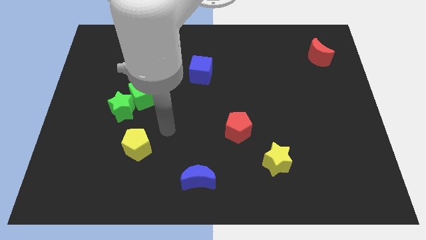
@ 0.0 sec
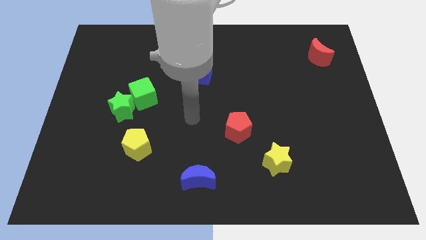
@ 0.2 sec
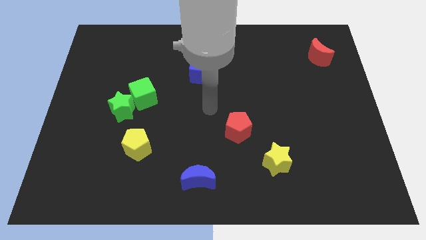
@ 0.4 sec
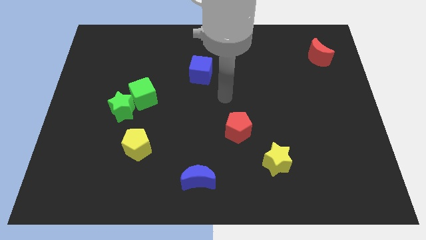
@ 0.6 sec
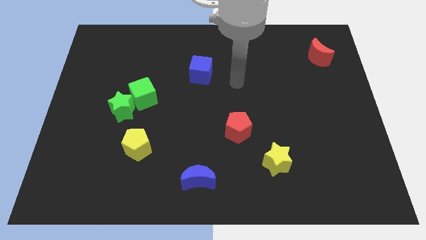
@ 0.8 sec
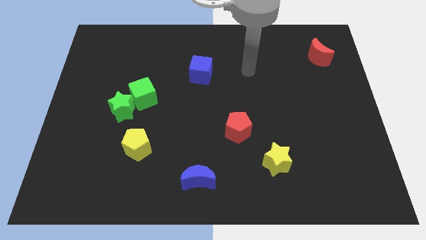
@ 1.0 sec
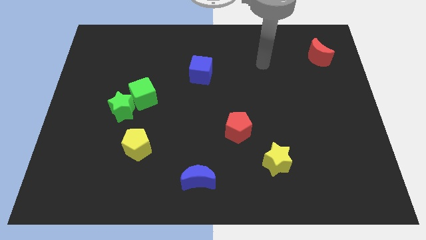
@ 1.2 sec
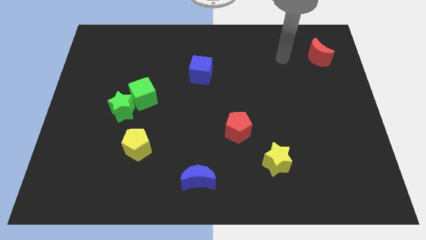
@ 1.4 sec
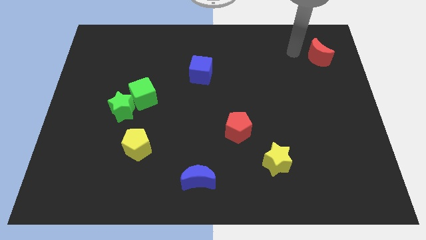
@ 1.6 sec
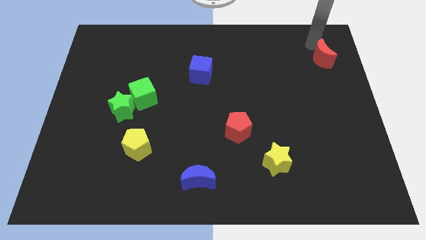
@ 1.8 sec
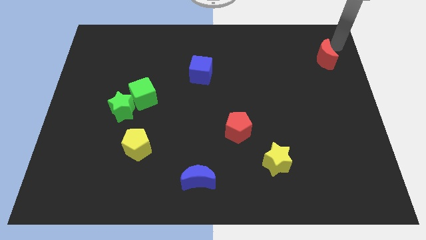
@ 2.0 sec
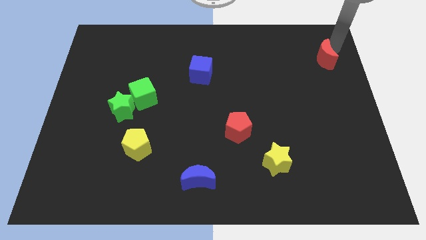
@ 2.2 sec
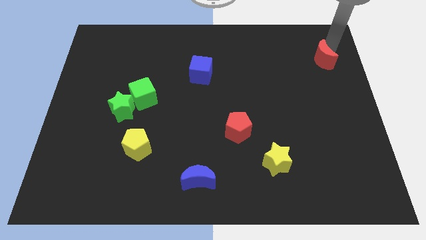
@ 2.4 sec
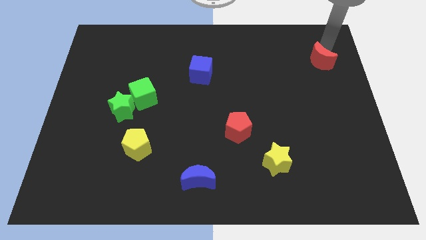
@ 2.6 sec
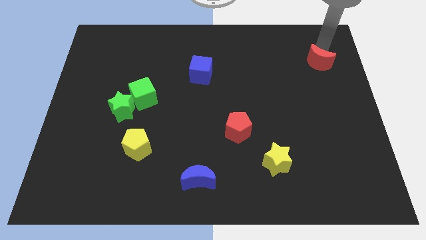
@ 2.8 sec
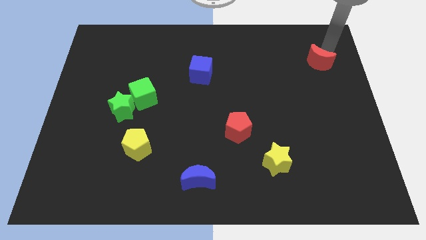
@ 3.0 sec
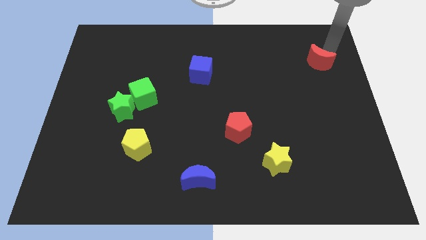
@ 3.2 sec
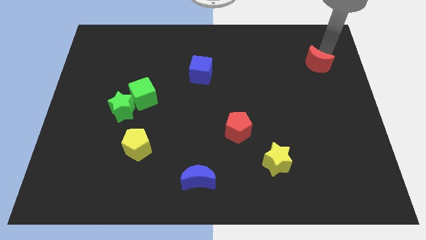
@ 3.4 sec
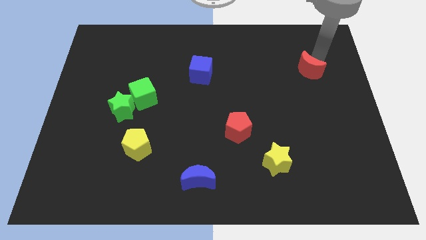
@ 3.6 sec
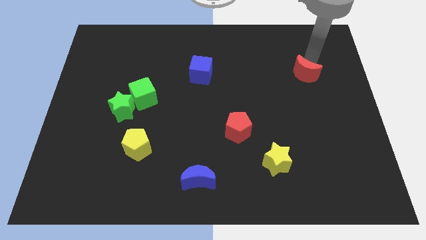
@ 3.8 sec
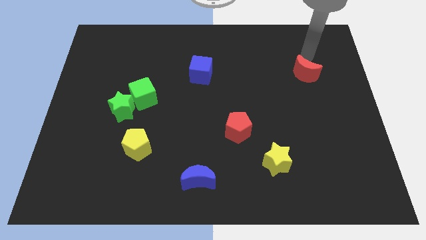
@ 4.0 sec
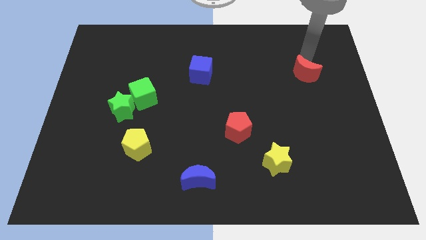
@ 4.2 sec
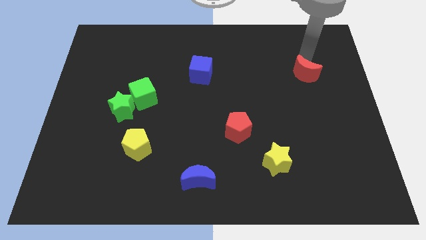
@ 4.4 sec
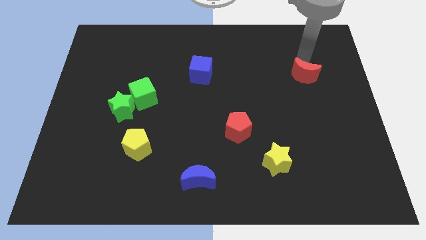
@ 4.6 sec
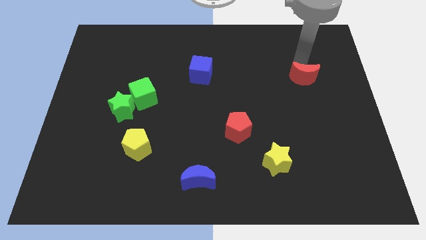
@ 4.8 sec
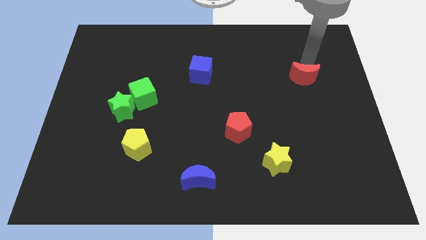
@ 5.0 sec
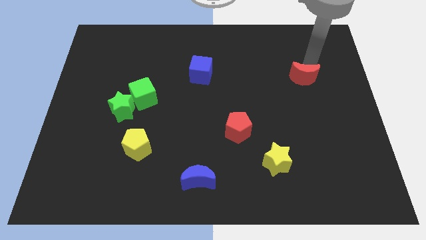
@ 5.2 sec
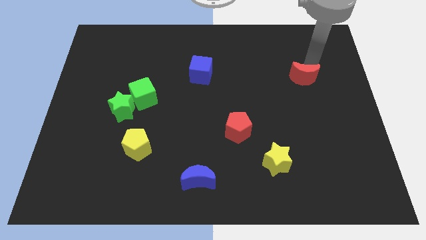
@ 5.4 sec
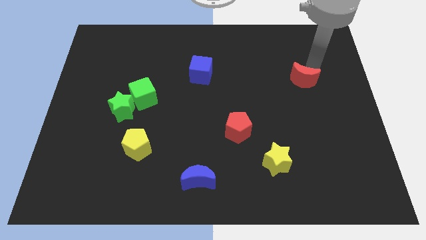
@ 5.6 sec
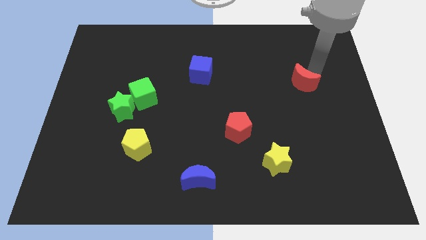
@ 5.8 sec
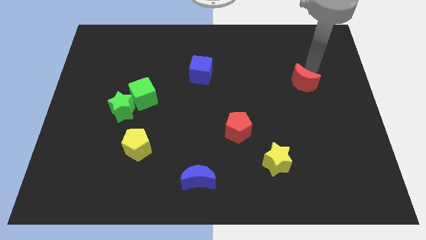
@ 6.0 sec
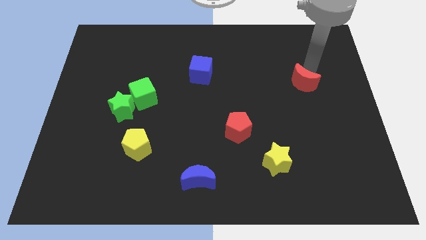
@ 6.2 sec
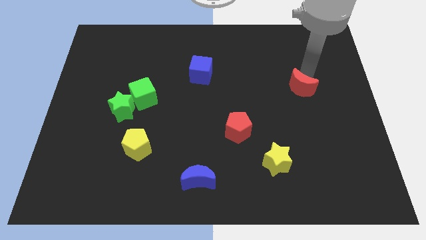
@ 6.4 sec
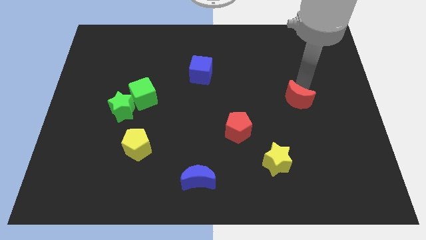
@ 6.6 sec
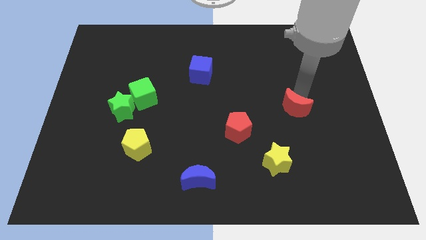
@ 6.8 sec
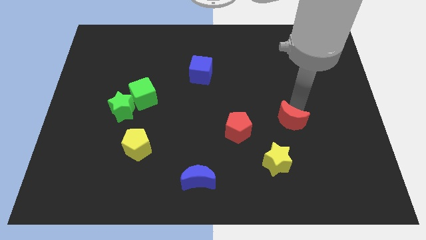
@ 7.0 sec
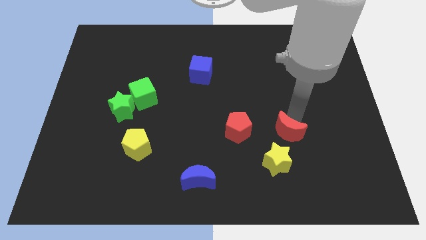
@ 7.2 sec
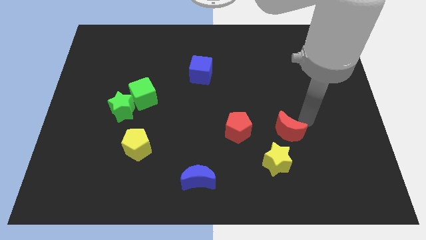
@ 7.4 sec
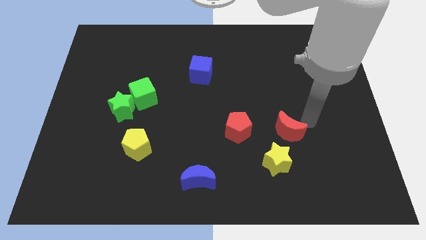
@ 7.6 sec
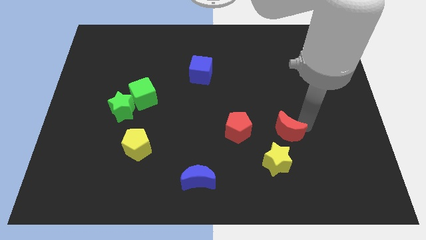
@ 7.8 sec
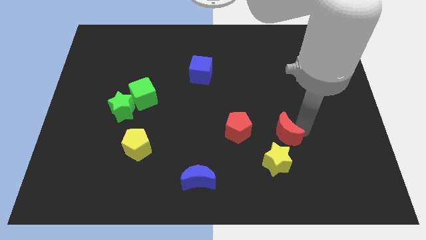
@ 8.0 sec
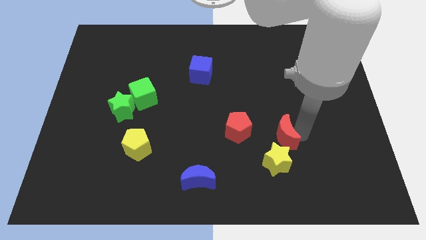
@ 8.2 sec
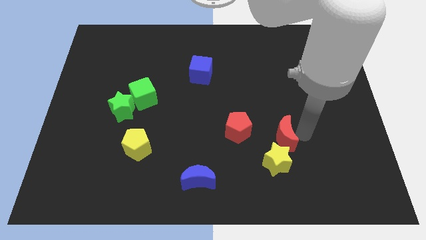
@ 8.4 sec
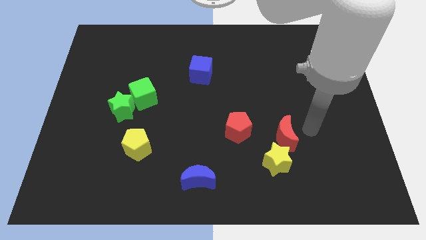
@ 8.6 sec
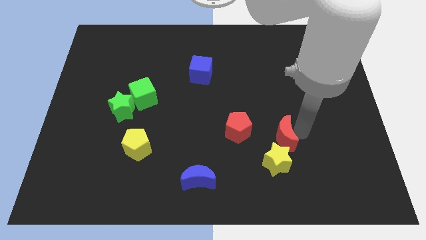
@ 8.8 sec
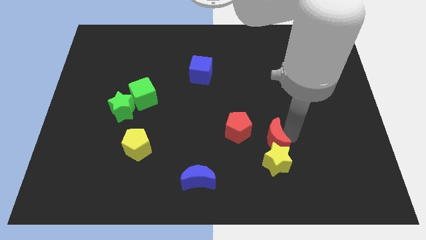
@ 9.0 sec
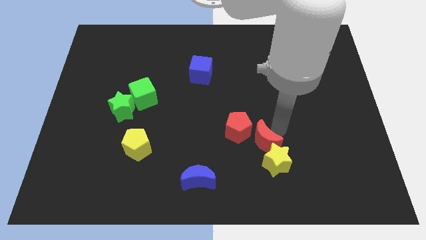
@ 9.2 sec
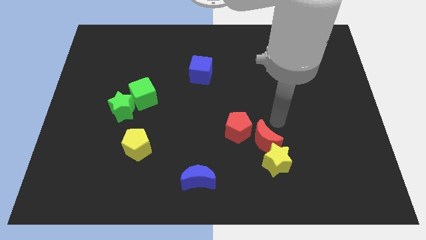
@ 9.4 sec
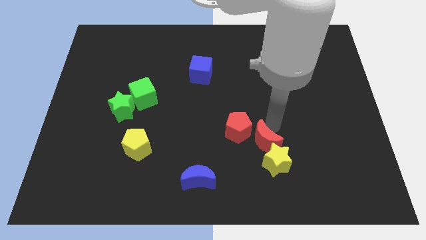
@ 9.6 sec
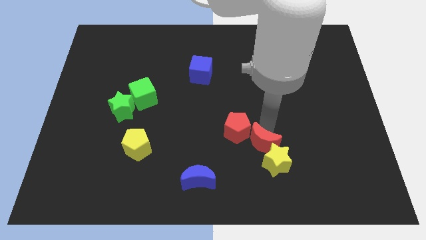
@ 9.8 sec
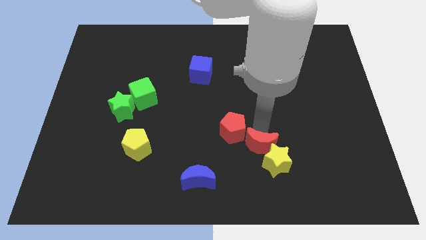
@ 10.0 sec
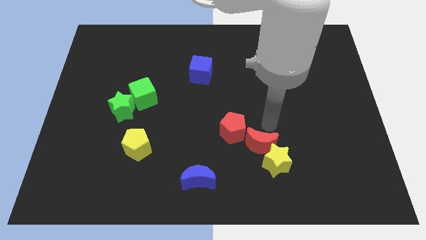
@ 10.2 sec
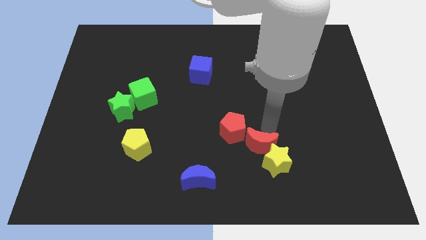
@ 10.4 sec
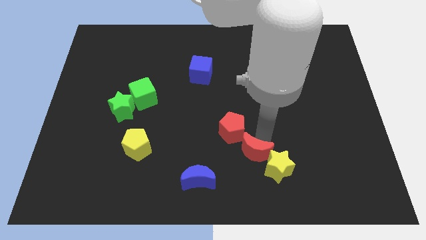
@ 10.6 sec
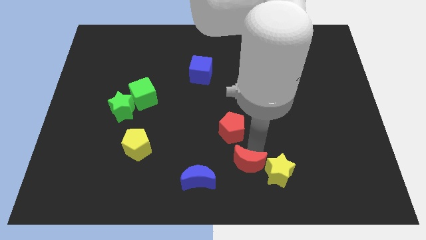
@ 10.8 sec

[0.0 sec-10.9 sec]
move the red moon to the bottom
